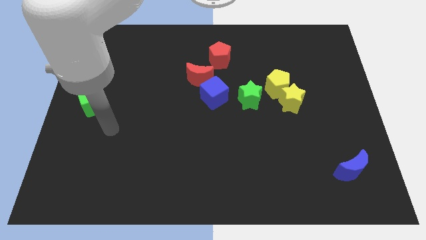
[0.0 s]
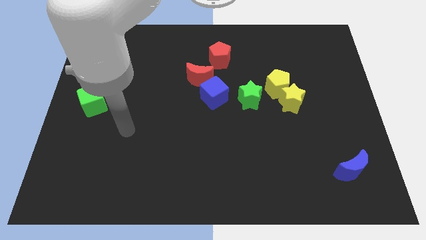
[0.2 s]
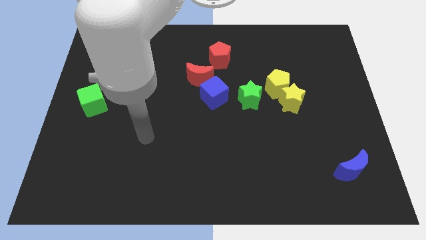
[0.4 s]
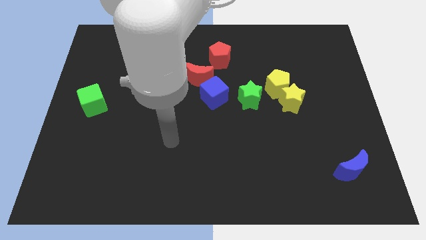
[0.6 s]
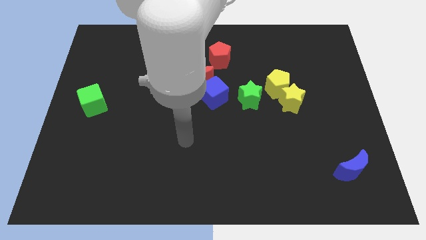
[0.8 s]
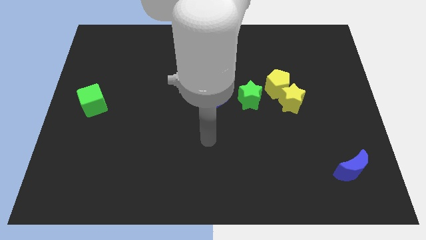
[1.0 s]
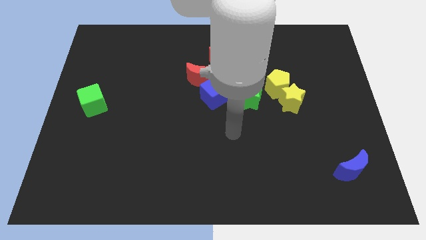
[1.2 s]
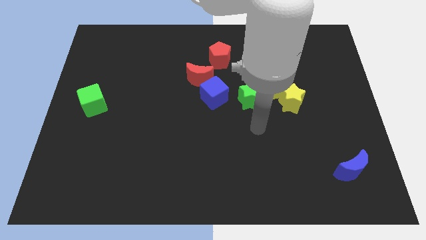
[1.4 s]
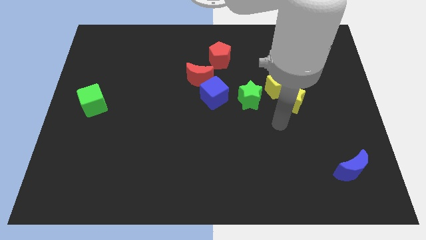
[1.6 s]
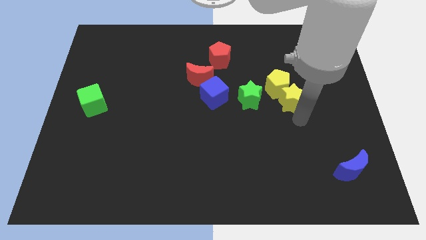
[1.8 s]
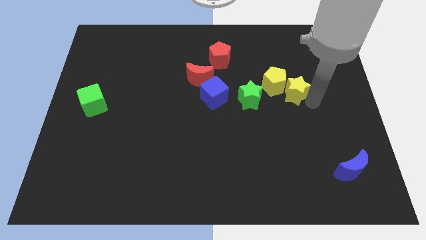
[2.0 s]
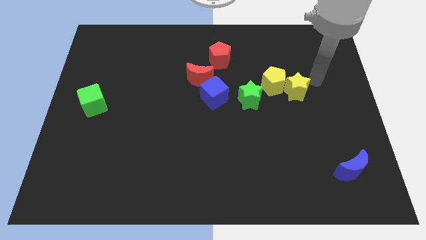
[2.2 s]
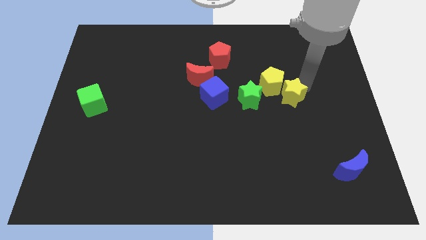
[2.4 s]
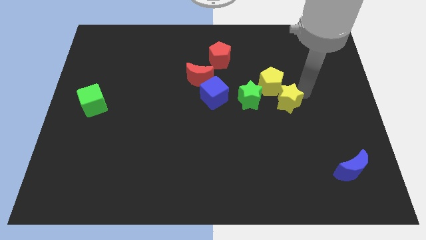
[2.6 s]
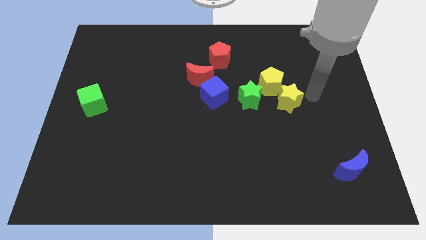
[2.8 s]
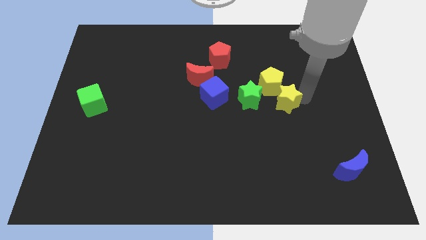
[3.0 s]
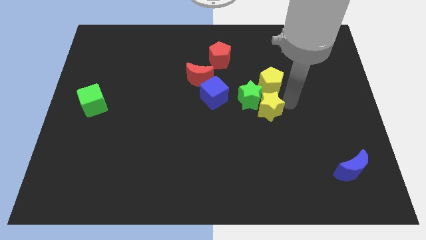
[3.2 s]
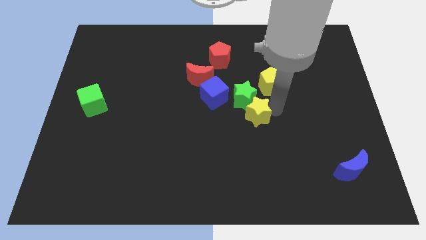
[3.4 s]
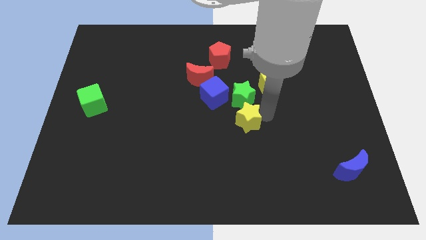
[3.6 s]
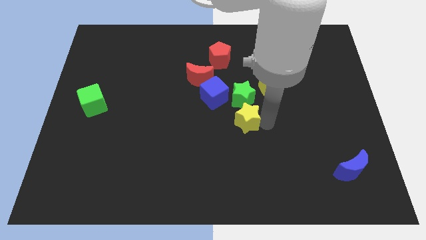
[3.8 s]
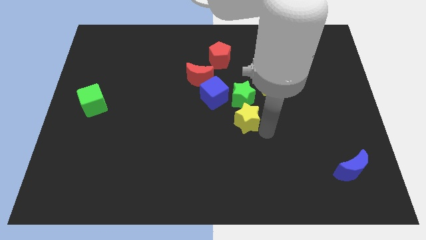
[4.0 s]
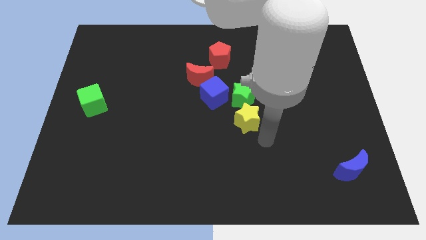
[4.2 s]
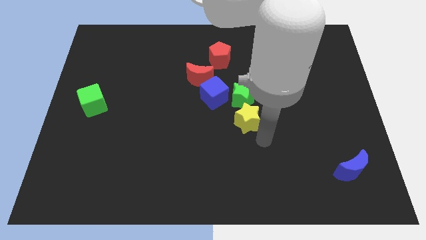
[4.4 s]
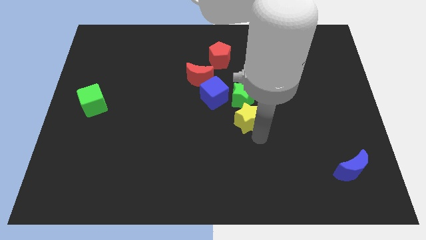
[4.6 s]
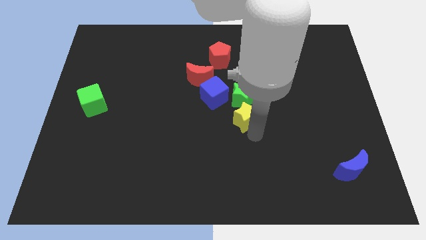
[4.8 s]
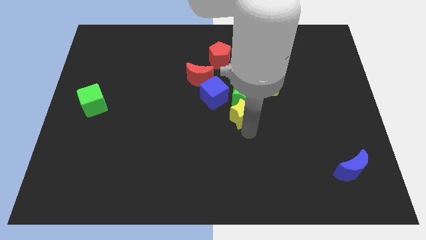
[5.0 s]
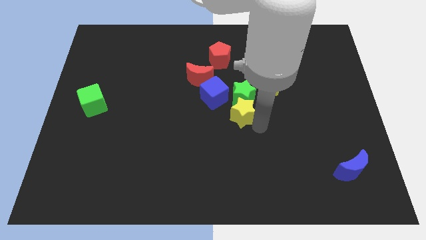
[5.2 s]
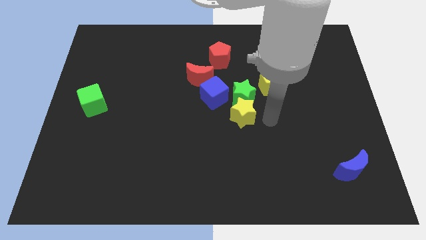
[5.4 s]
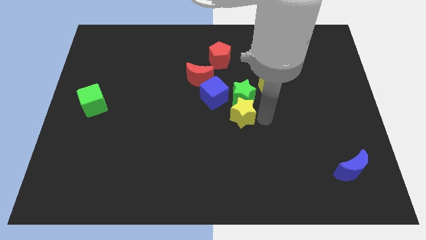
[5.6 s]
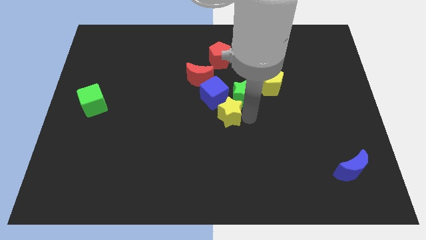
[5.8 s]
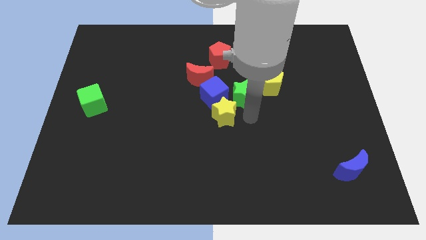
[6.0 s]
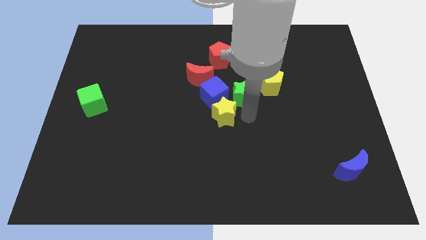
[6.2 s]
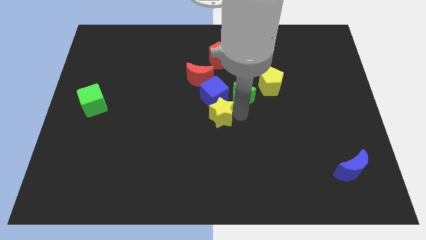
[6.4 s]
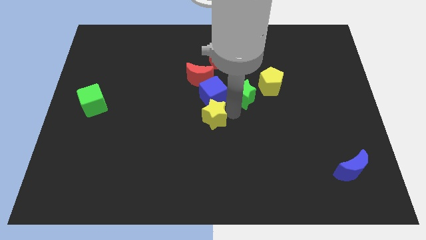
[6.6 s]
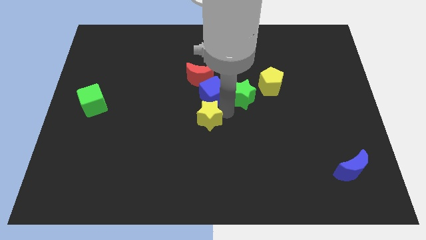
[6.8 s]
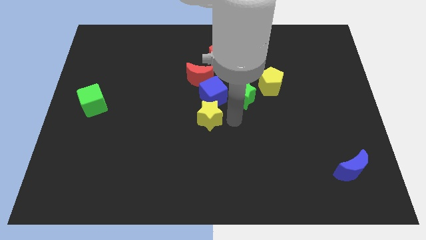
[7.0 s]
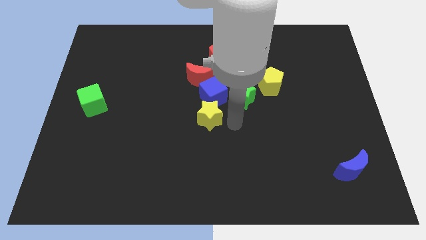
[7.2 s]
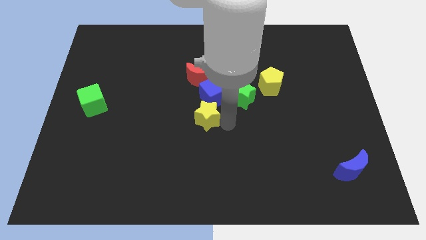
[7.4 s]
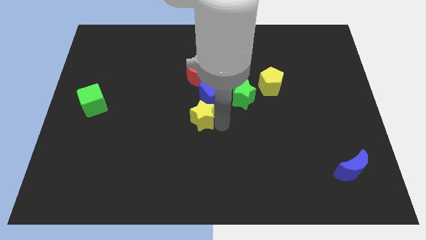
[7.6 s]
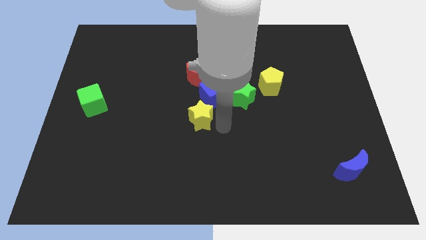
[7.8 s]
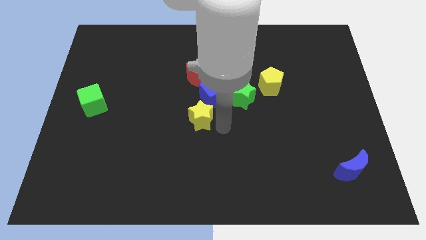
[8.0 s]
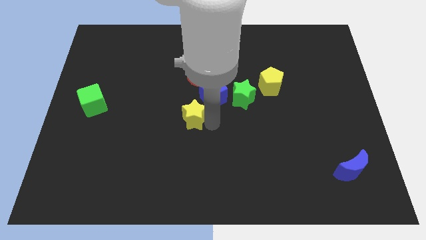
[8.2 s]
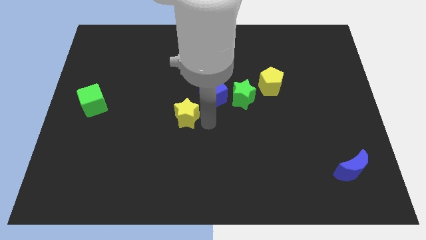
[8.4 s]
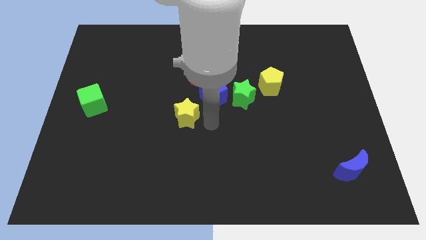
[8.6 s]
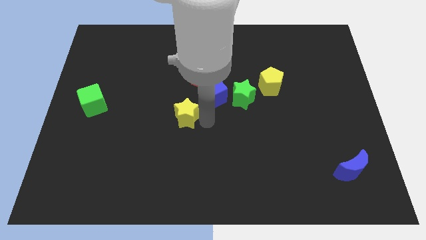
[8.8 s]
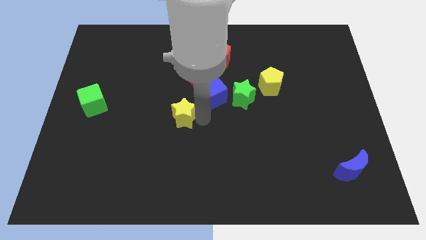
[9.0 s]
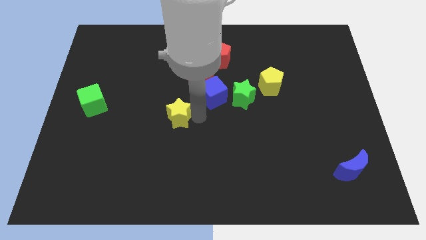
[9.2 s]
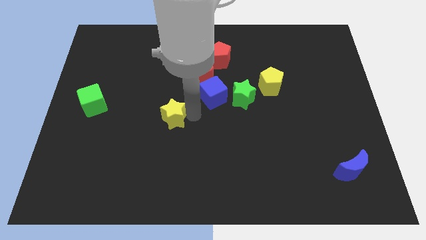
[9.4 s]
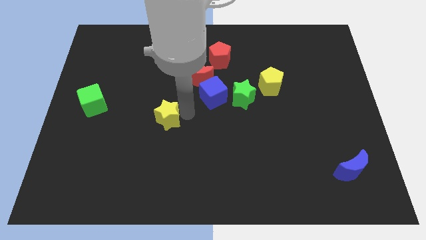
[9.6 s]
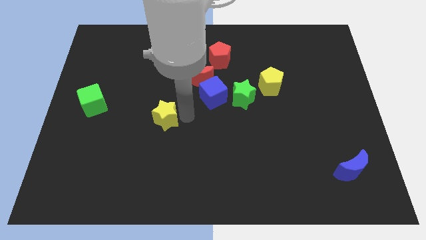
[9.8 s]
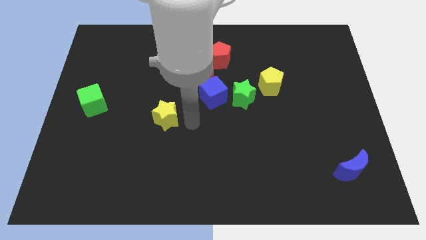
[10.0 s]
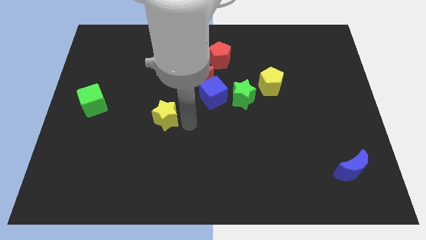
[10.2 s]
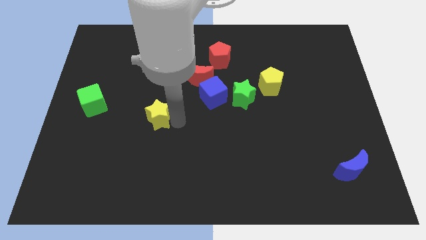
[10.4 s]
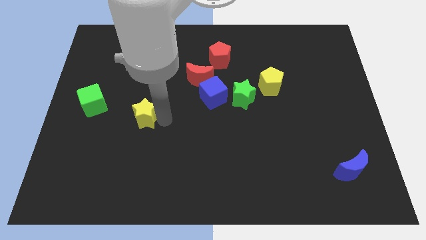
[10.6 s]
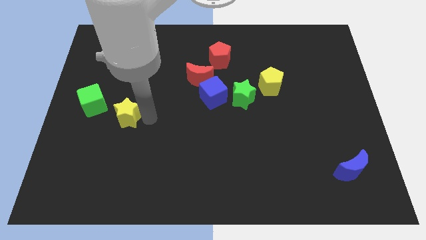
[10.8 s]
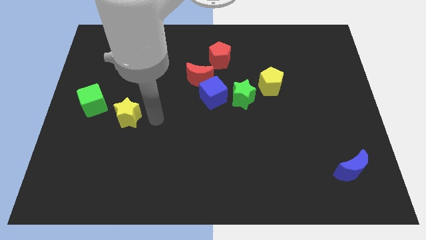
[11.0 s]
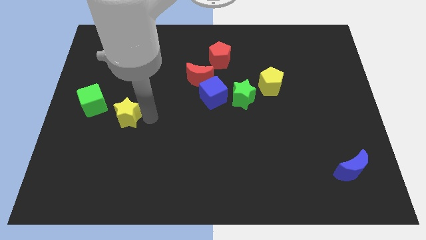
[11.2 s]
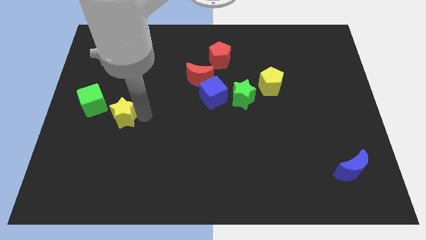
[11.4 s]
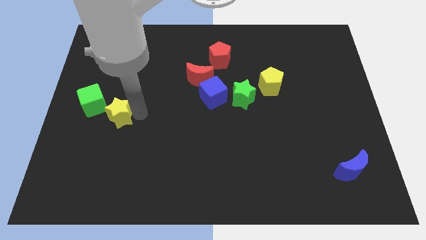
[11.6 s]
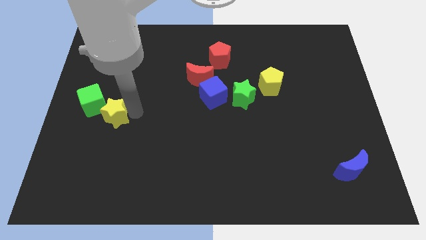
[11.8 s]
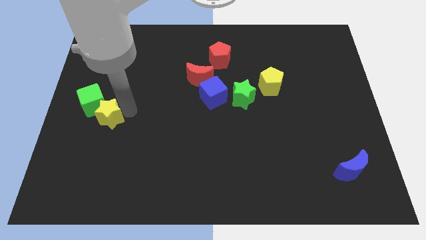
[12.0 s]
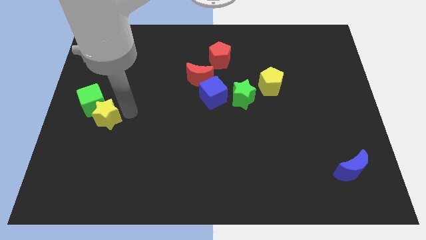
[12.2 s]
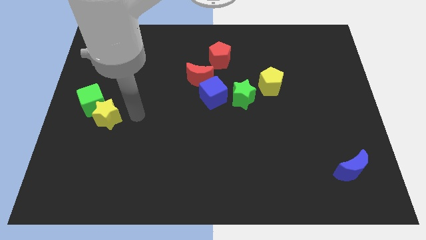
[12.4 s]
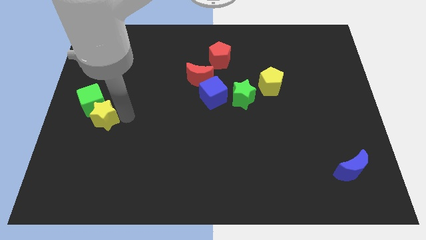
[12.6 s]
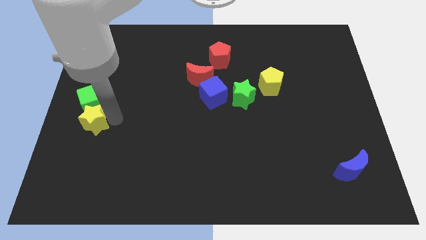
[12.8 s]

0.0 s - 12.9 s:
slide the yellow star to the center left

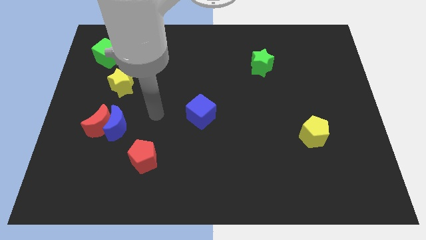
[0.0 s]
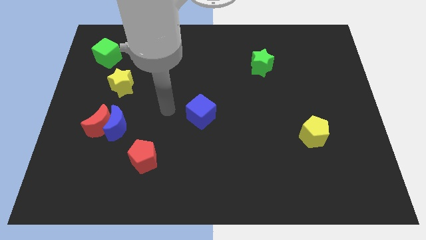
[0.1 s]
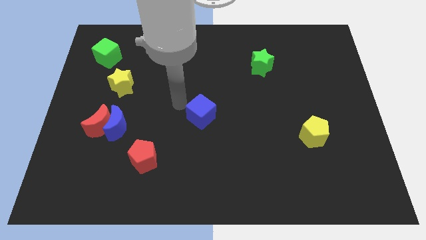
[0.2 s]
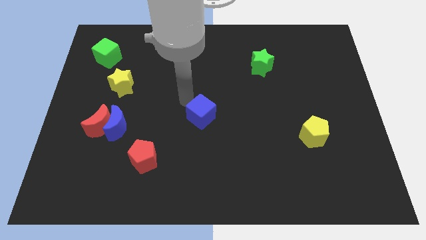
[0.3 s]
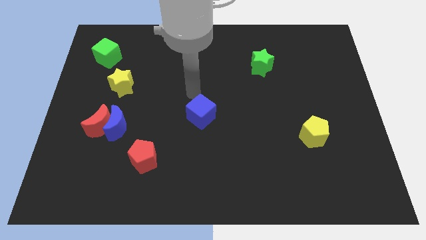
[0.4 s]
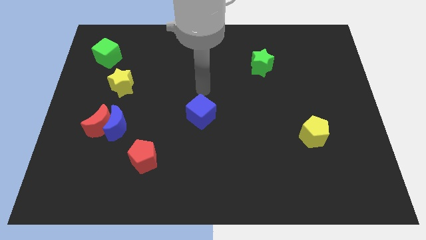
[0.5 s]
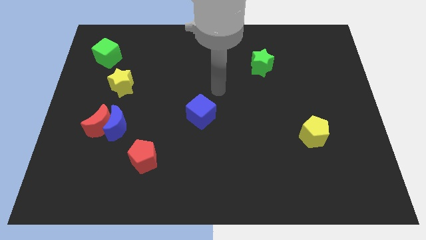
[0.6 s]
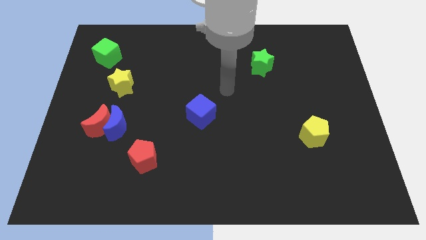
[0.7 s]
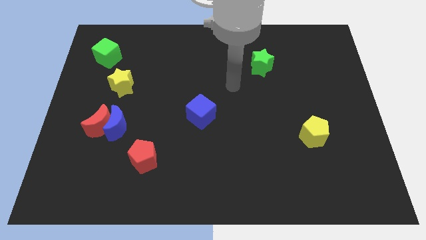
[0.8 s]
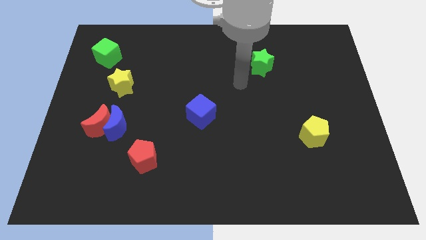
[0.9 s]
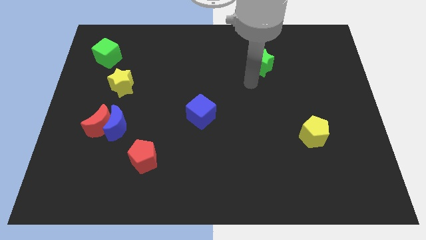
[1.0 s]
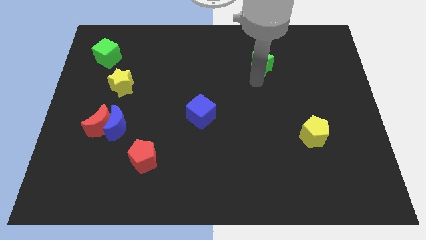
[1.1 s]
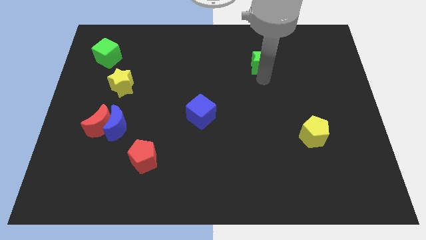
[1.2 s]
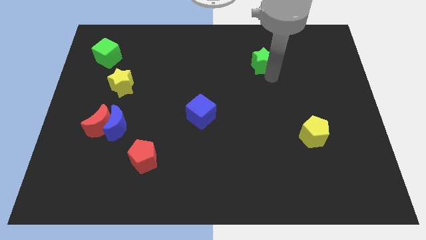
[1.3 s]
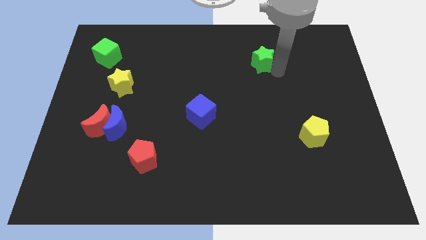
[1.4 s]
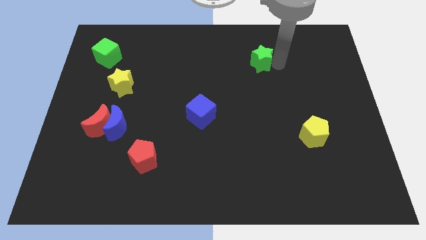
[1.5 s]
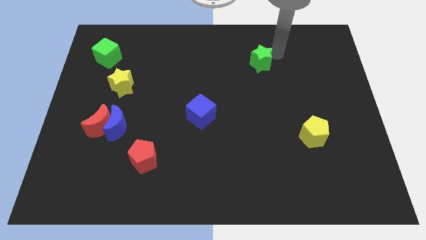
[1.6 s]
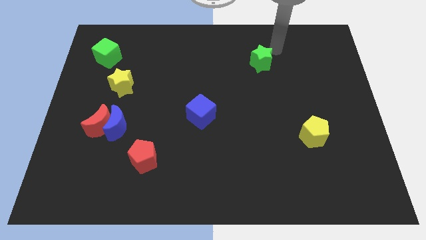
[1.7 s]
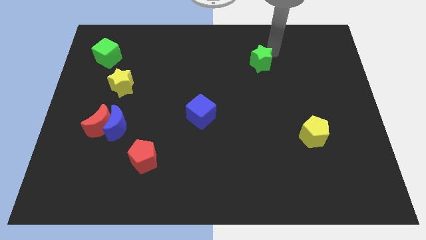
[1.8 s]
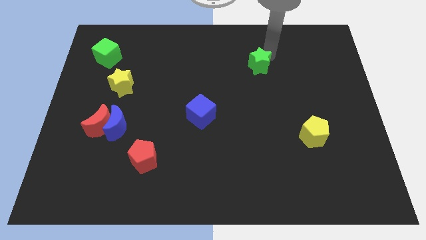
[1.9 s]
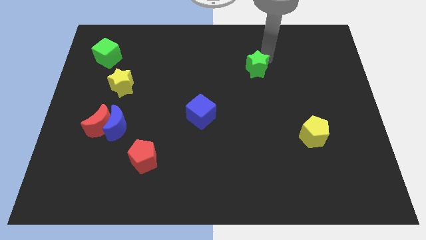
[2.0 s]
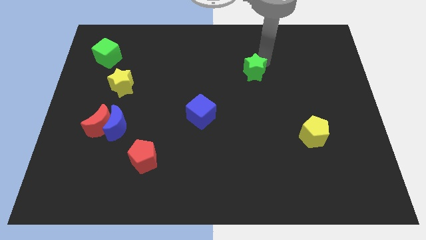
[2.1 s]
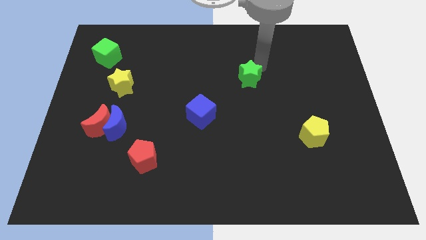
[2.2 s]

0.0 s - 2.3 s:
slide the green star to the middle of the board
